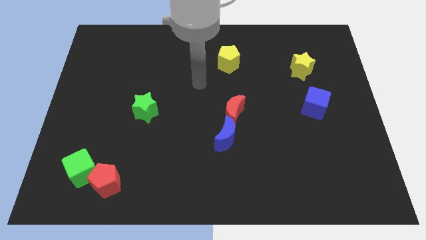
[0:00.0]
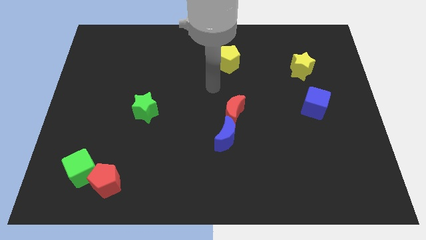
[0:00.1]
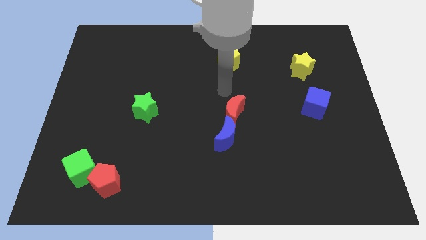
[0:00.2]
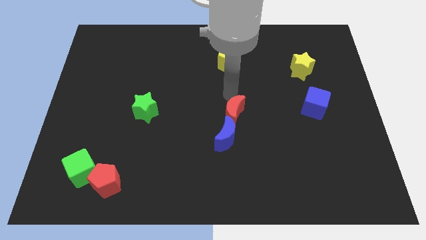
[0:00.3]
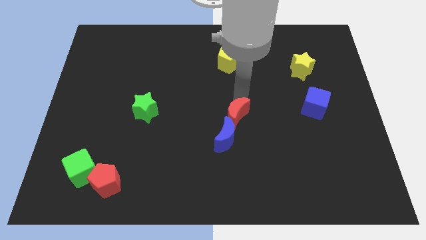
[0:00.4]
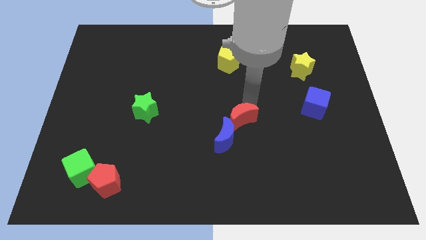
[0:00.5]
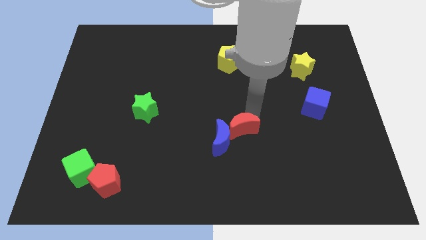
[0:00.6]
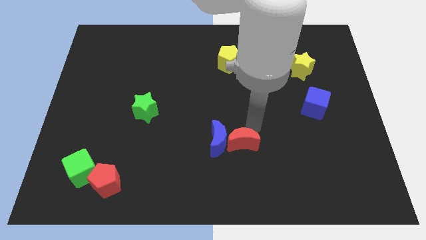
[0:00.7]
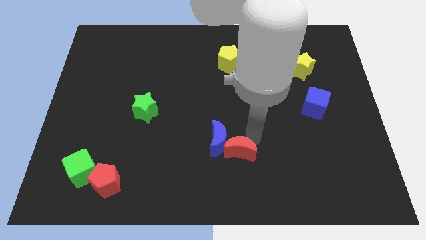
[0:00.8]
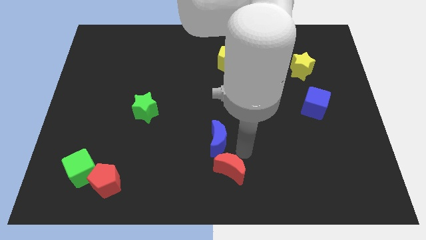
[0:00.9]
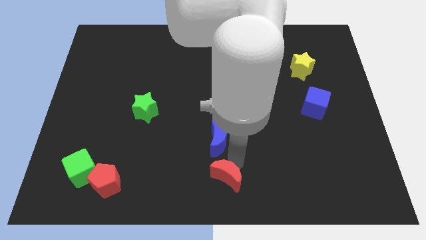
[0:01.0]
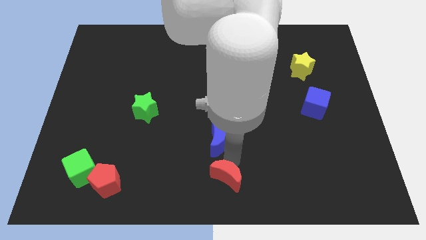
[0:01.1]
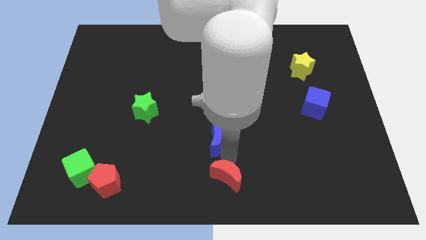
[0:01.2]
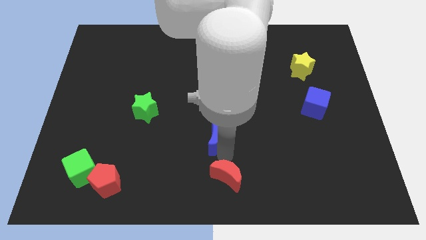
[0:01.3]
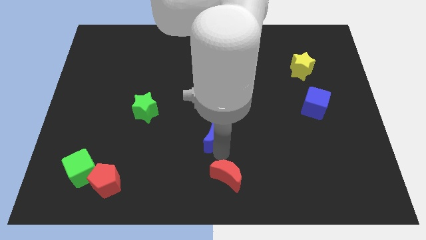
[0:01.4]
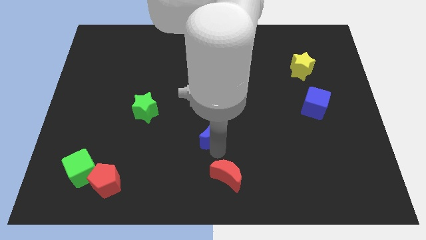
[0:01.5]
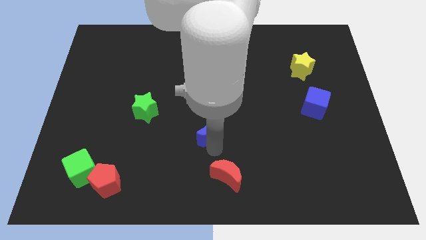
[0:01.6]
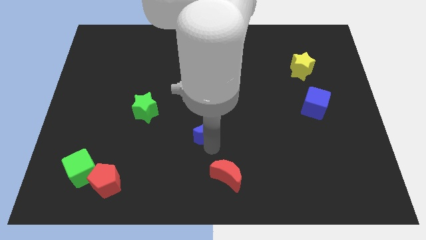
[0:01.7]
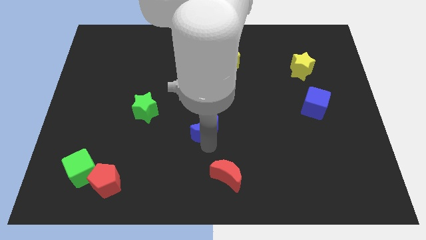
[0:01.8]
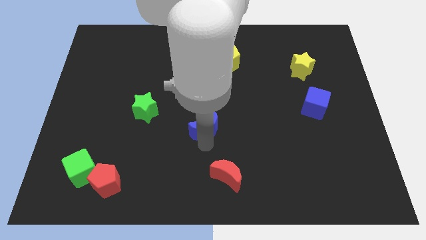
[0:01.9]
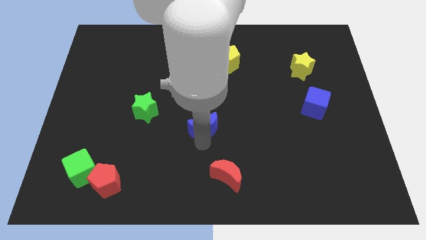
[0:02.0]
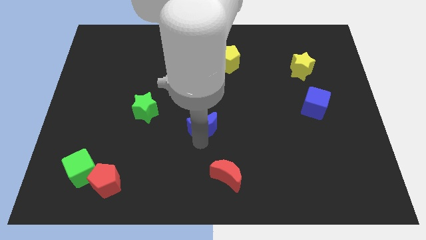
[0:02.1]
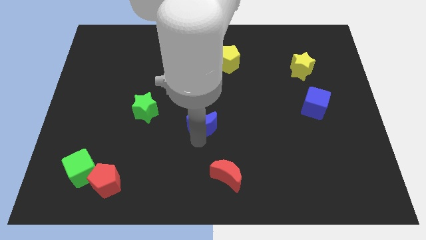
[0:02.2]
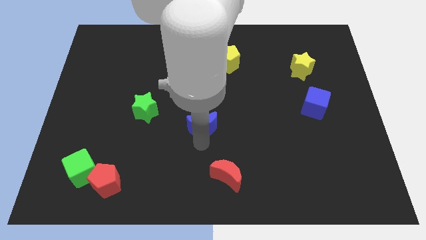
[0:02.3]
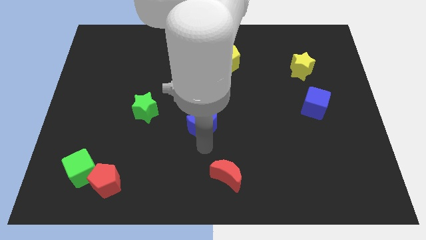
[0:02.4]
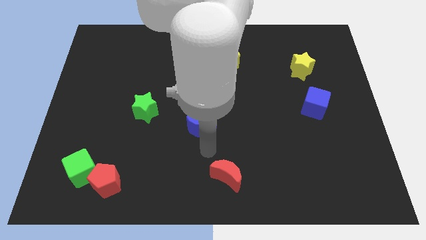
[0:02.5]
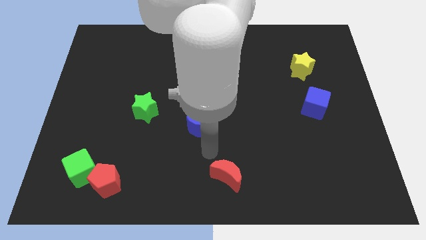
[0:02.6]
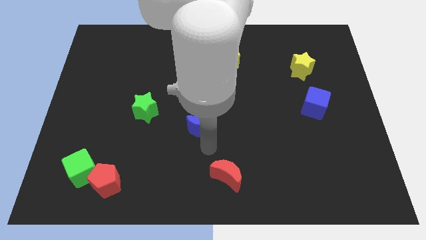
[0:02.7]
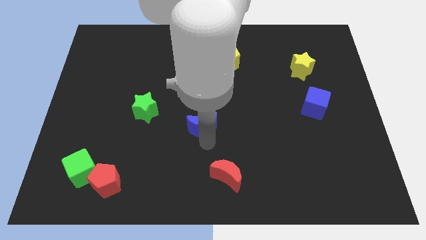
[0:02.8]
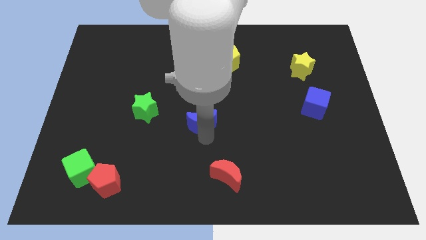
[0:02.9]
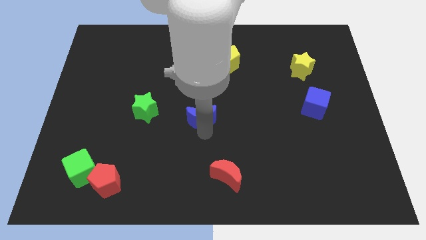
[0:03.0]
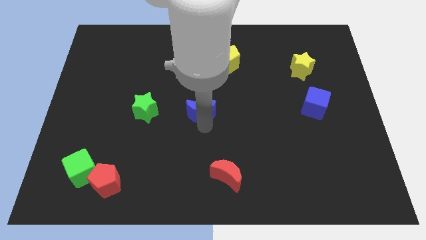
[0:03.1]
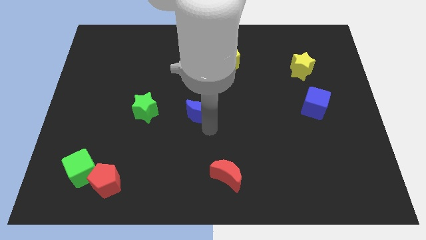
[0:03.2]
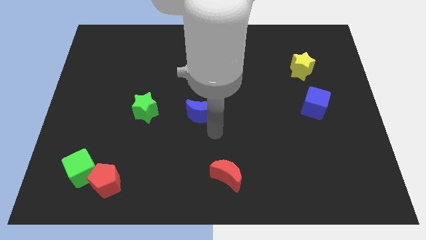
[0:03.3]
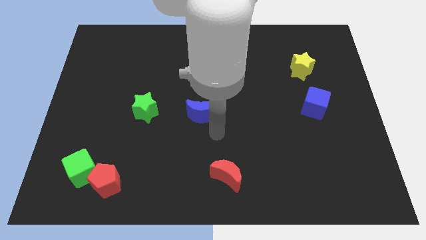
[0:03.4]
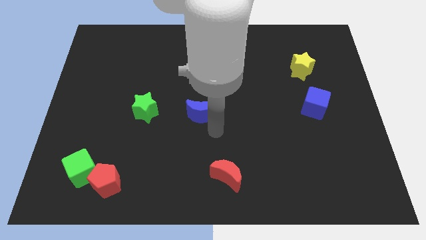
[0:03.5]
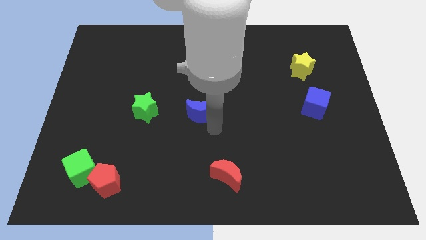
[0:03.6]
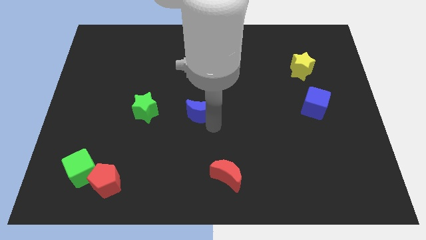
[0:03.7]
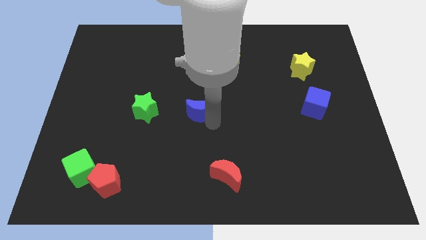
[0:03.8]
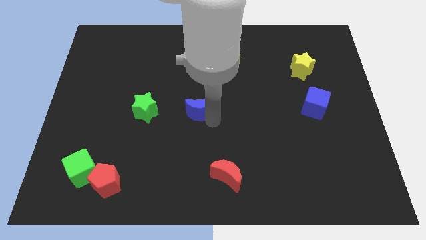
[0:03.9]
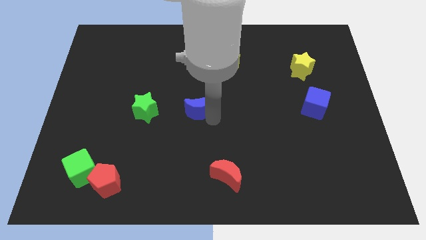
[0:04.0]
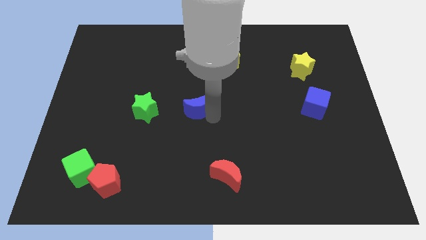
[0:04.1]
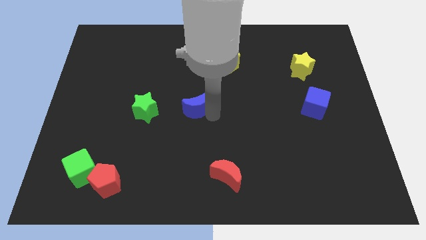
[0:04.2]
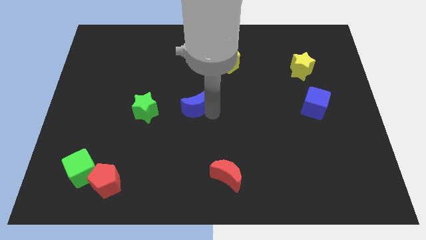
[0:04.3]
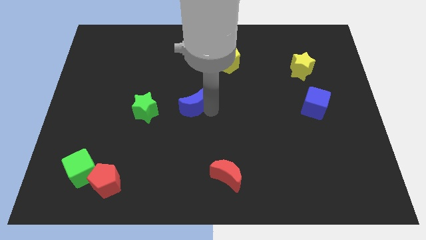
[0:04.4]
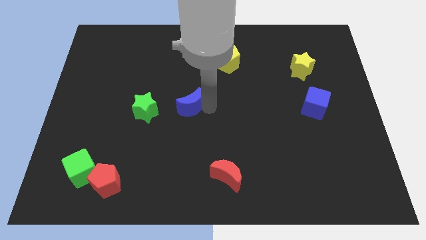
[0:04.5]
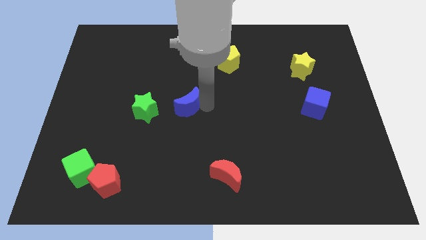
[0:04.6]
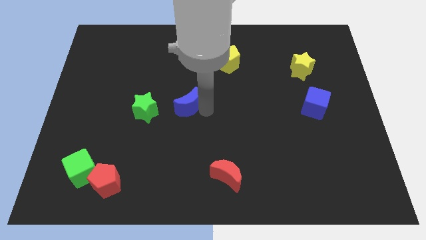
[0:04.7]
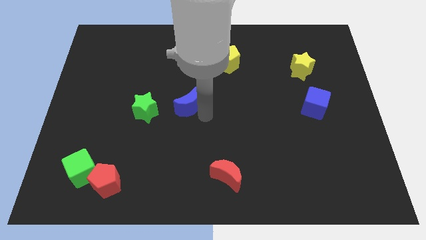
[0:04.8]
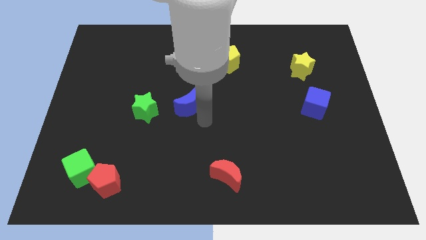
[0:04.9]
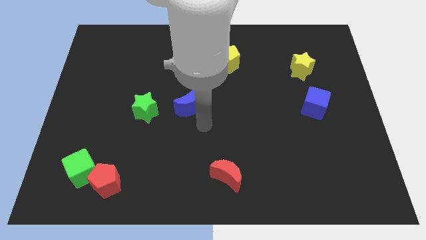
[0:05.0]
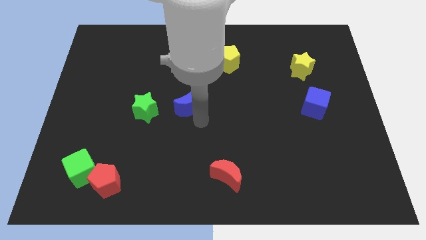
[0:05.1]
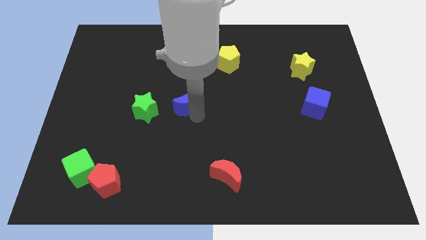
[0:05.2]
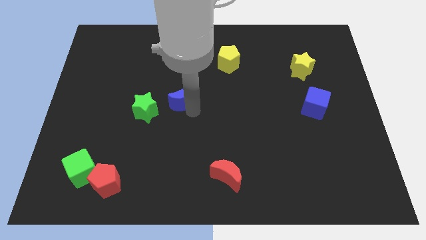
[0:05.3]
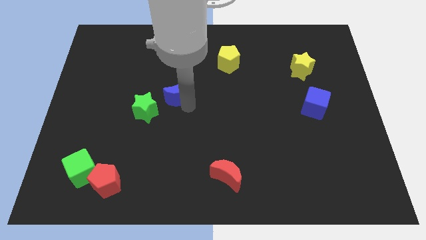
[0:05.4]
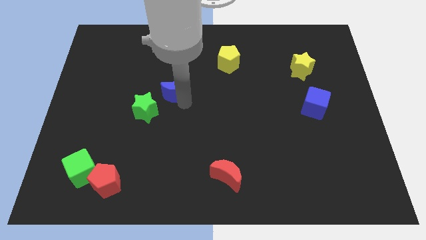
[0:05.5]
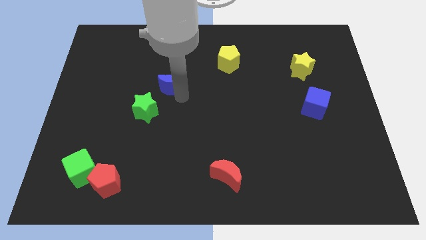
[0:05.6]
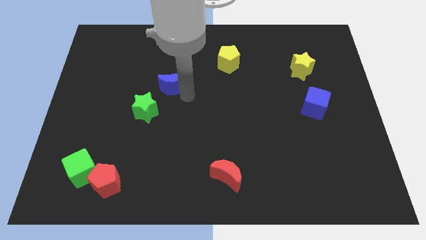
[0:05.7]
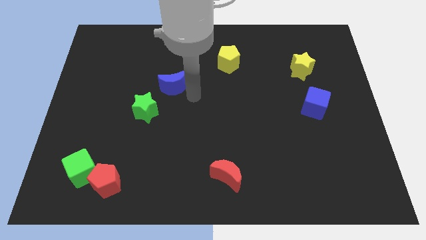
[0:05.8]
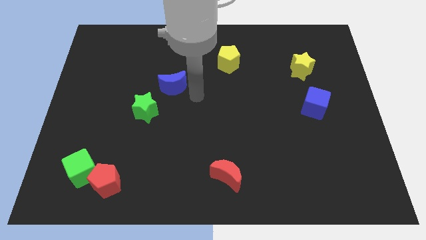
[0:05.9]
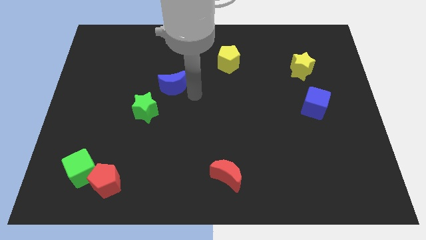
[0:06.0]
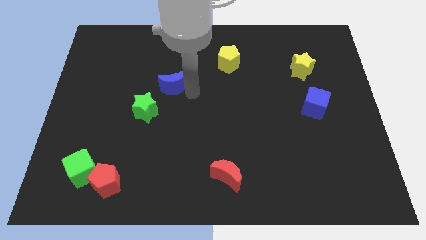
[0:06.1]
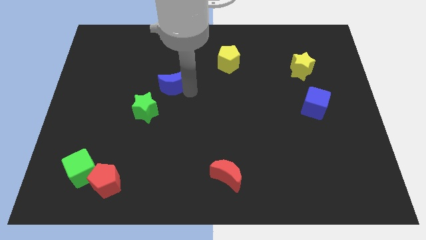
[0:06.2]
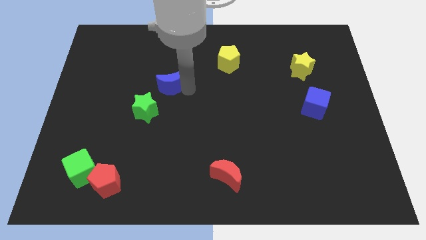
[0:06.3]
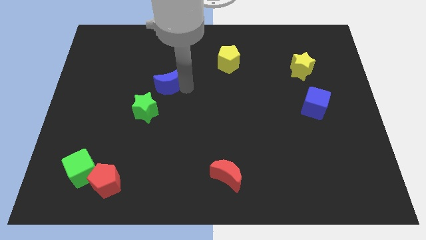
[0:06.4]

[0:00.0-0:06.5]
slide the blue moon to the top of the green star

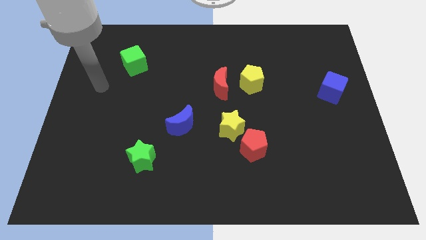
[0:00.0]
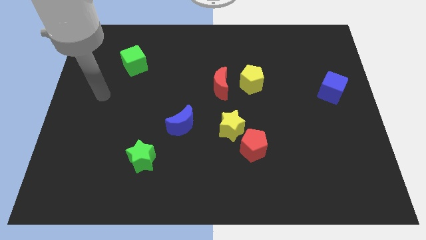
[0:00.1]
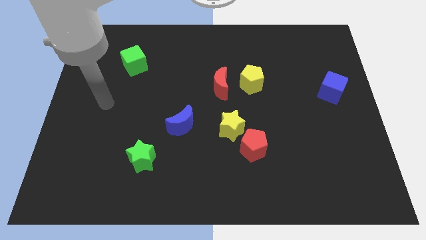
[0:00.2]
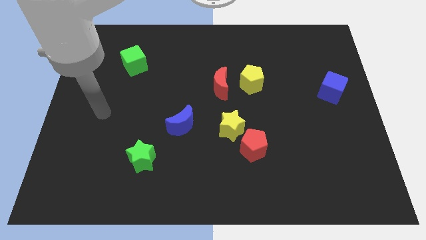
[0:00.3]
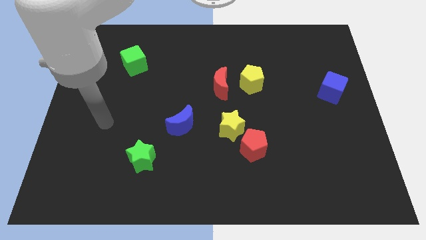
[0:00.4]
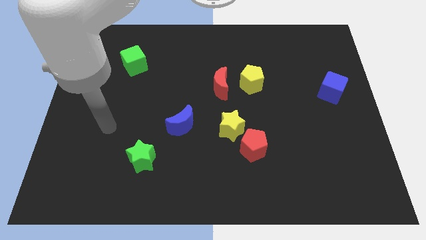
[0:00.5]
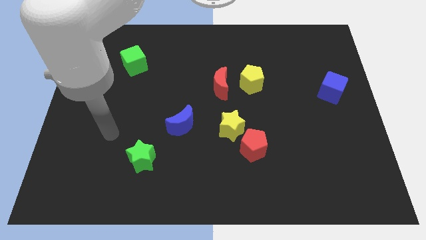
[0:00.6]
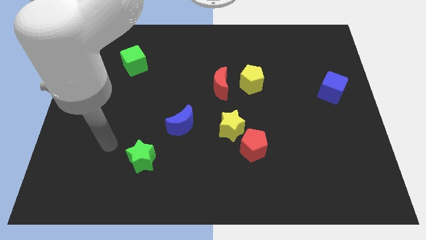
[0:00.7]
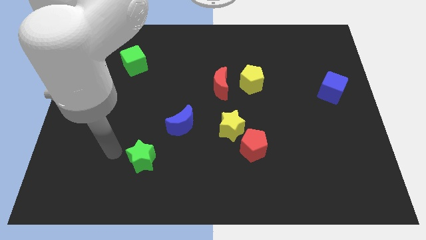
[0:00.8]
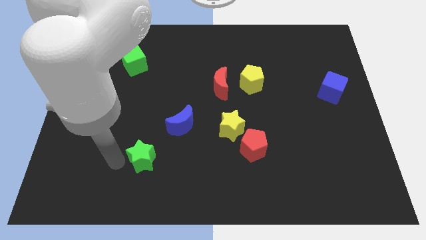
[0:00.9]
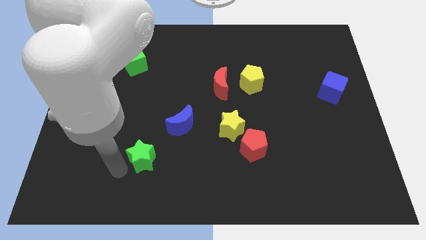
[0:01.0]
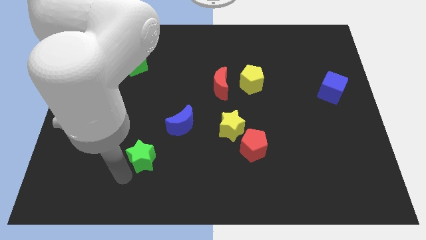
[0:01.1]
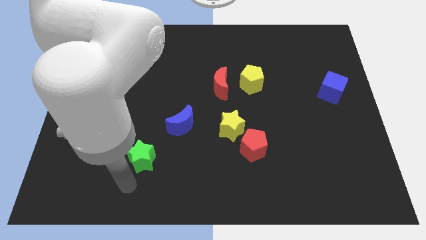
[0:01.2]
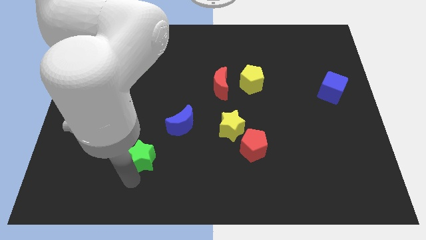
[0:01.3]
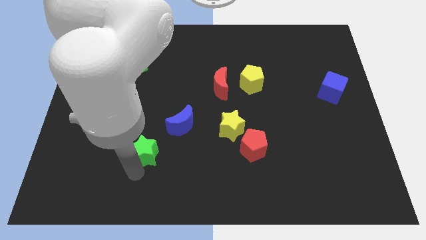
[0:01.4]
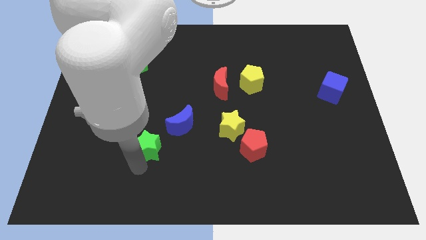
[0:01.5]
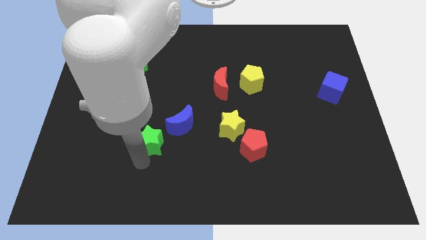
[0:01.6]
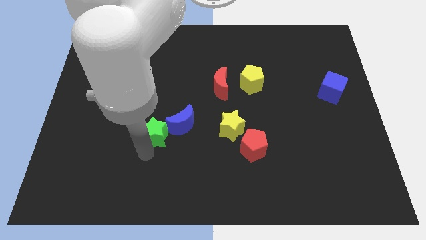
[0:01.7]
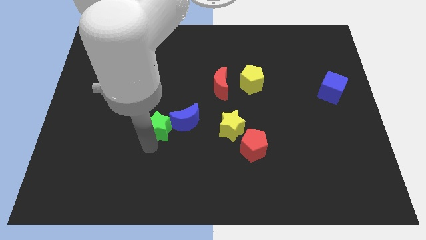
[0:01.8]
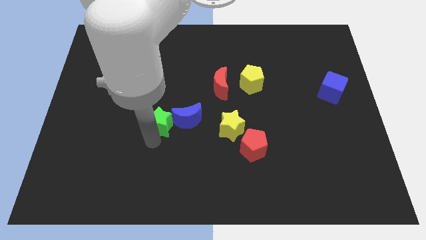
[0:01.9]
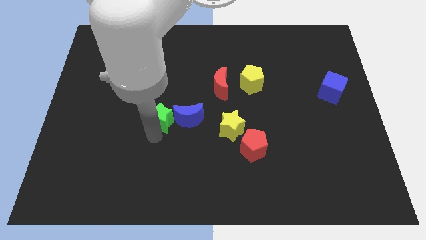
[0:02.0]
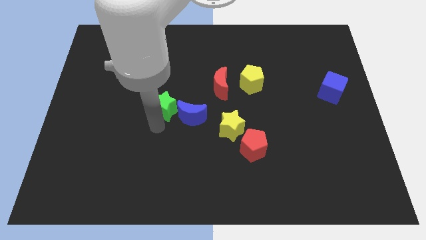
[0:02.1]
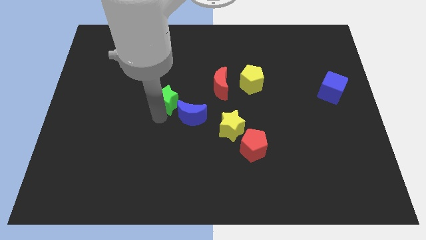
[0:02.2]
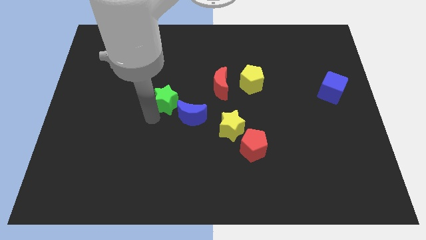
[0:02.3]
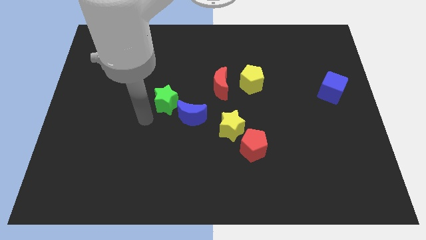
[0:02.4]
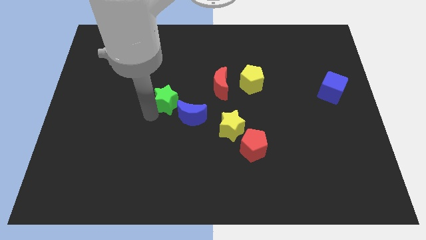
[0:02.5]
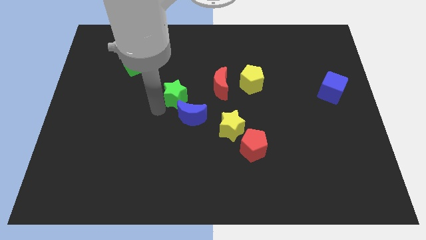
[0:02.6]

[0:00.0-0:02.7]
put the green star above the blue moon
